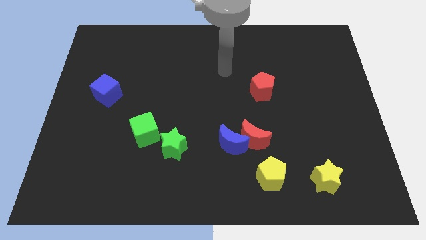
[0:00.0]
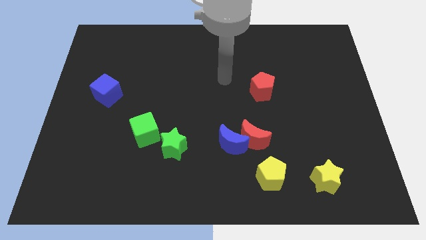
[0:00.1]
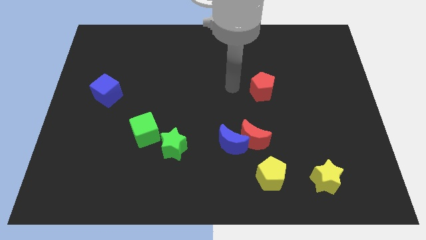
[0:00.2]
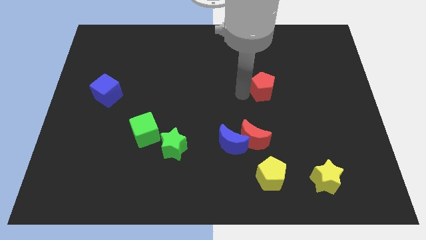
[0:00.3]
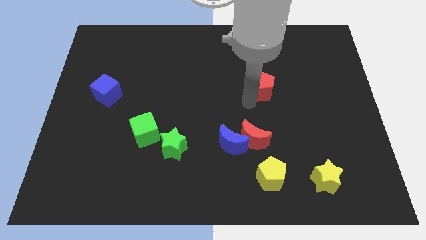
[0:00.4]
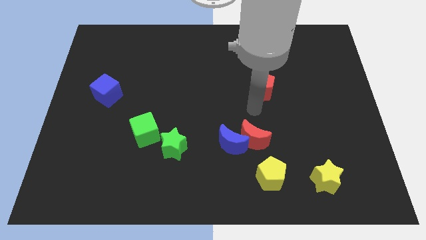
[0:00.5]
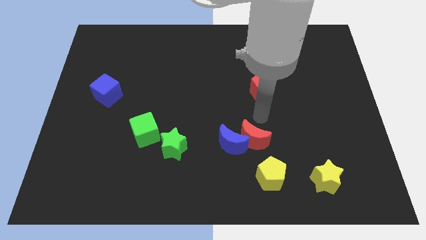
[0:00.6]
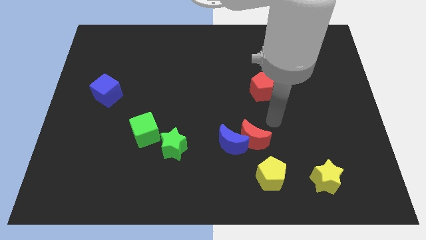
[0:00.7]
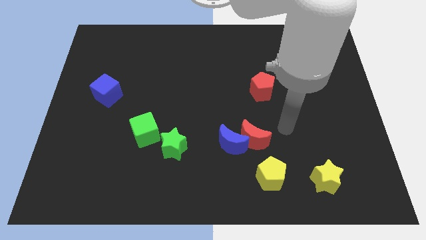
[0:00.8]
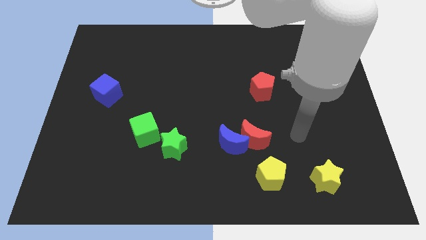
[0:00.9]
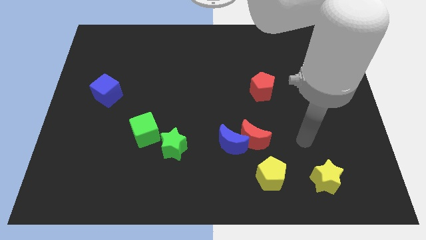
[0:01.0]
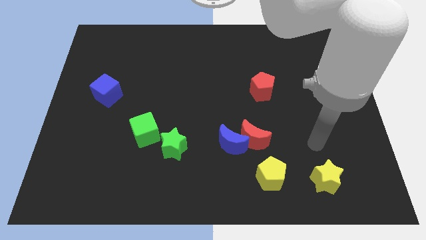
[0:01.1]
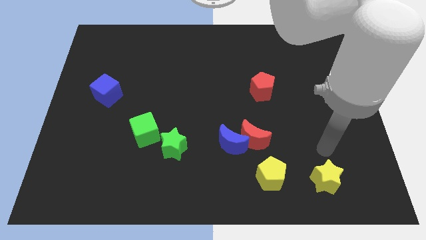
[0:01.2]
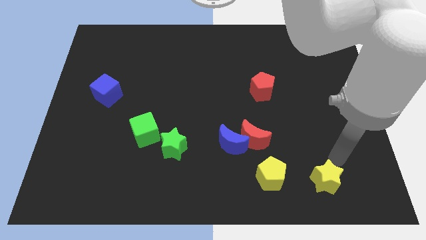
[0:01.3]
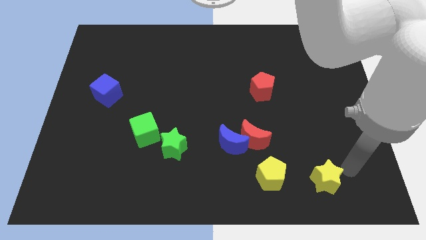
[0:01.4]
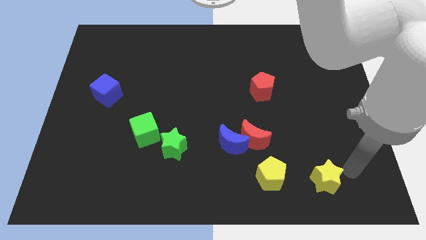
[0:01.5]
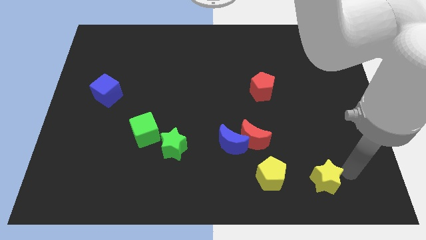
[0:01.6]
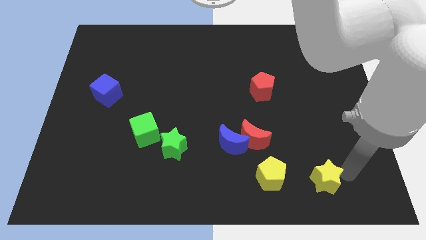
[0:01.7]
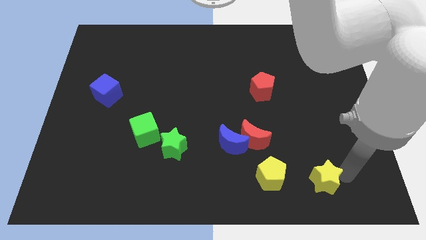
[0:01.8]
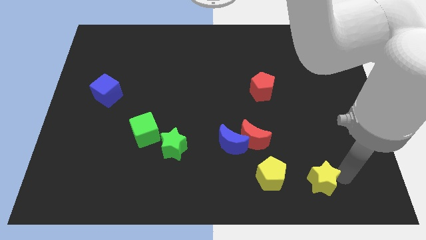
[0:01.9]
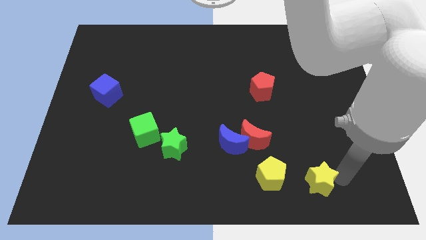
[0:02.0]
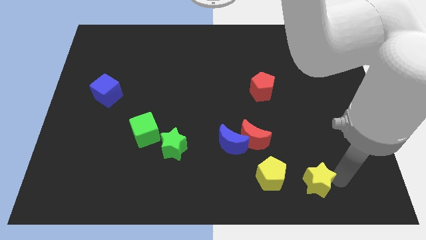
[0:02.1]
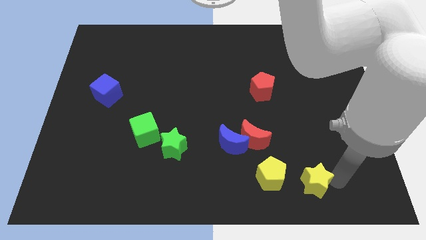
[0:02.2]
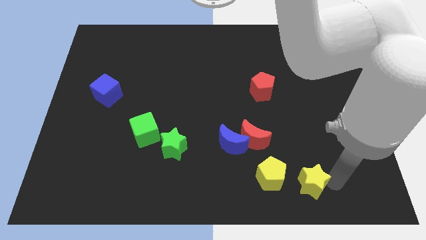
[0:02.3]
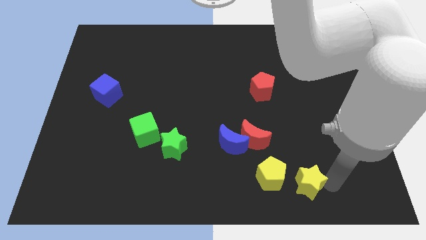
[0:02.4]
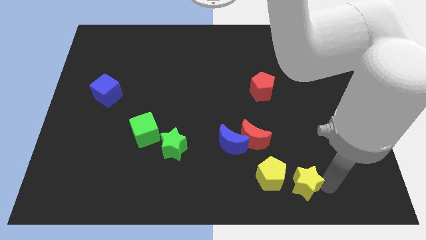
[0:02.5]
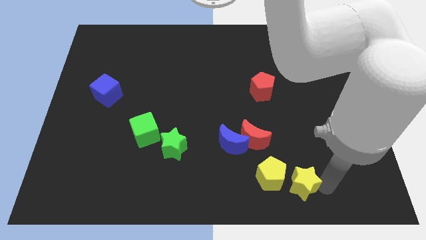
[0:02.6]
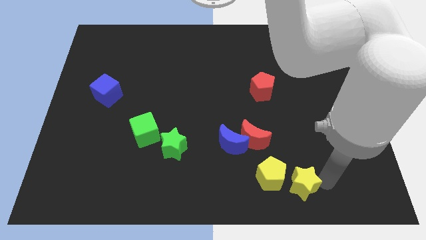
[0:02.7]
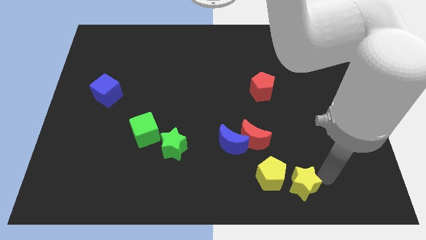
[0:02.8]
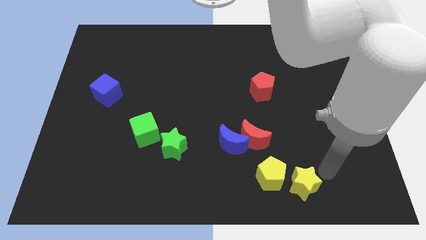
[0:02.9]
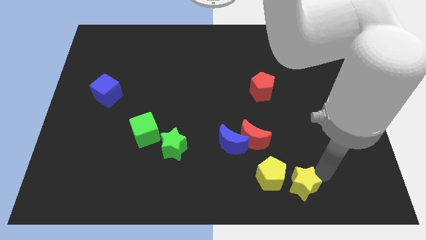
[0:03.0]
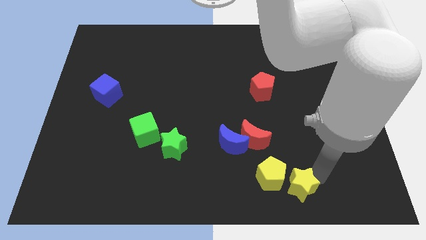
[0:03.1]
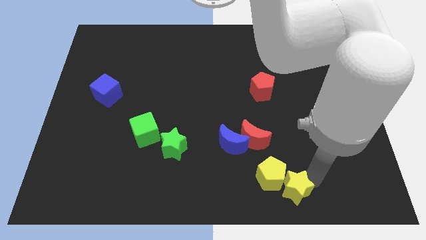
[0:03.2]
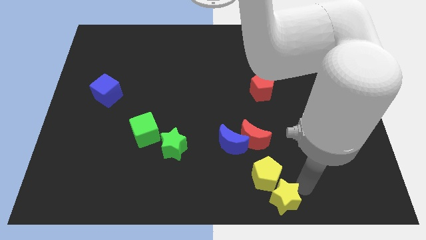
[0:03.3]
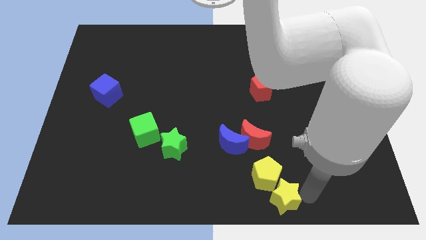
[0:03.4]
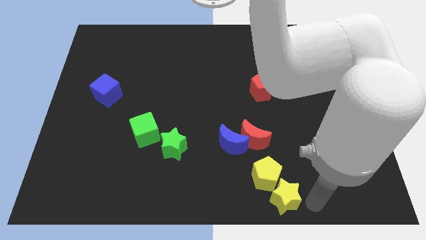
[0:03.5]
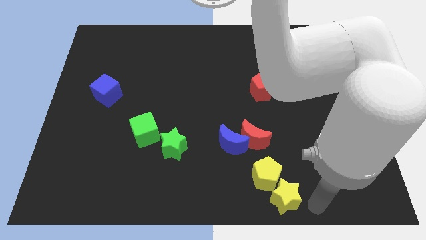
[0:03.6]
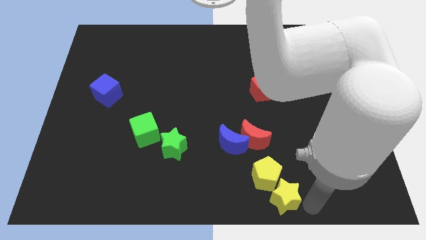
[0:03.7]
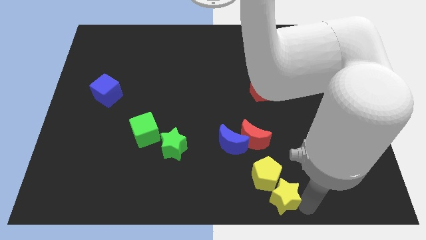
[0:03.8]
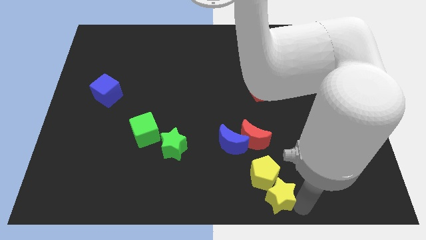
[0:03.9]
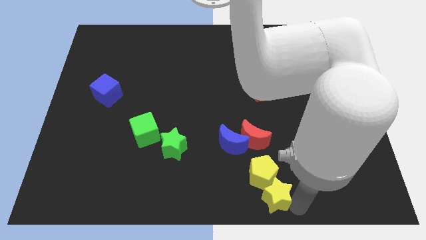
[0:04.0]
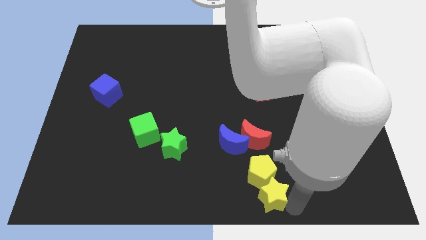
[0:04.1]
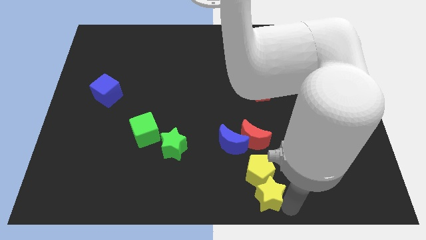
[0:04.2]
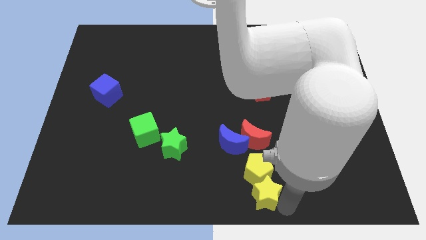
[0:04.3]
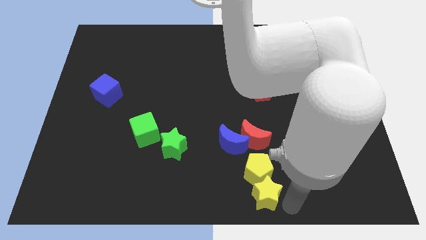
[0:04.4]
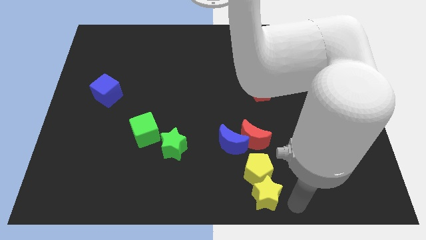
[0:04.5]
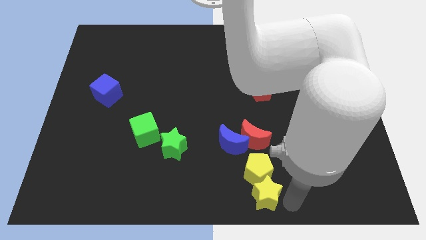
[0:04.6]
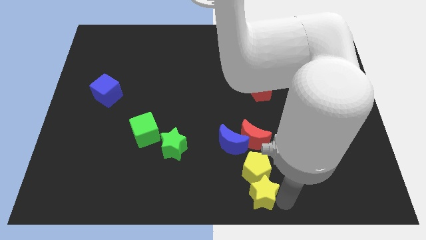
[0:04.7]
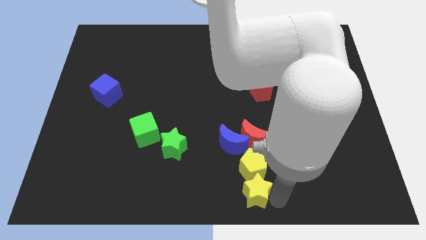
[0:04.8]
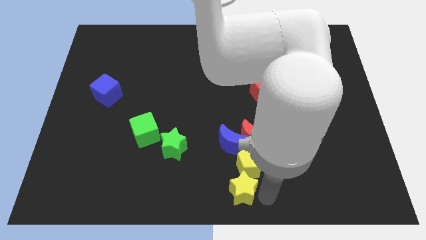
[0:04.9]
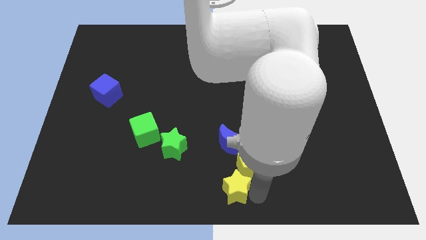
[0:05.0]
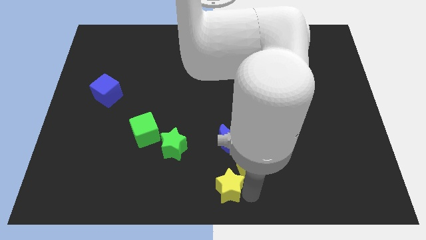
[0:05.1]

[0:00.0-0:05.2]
slide the yellow star to the left

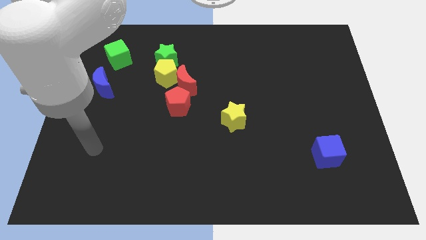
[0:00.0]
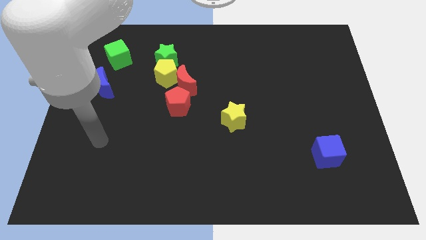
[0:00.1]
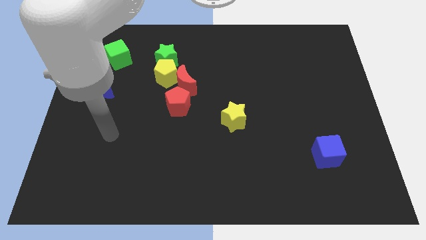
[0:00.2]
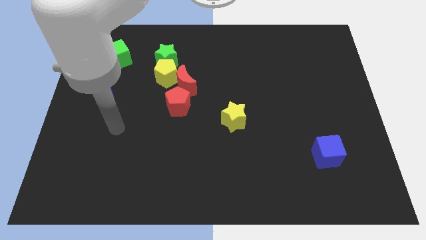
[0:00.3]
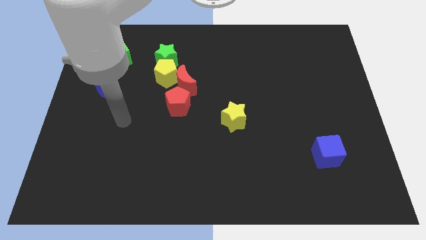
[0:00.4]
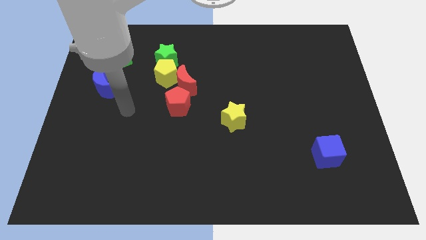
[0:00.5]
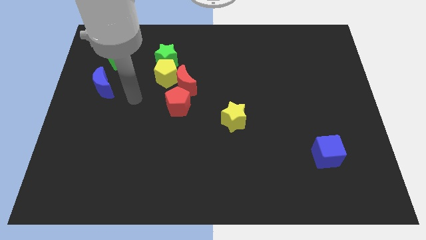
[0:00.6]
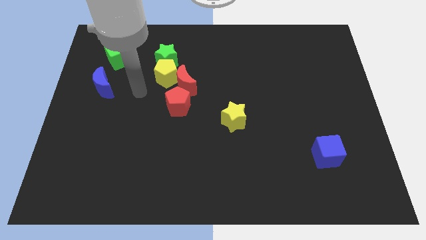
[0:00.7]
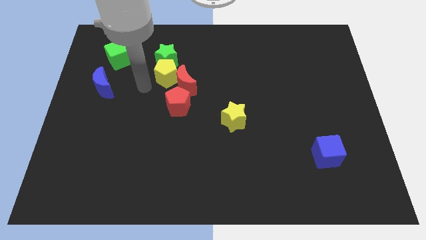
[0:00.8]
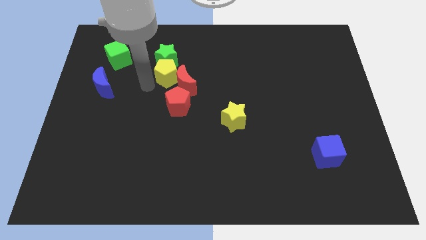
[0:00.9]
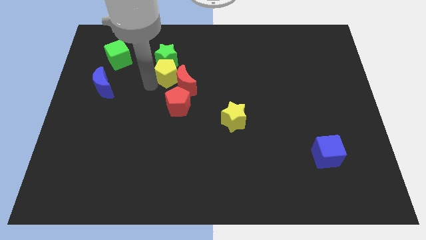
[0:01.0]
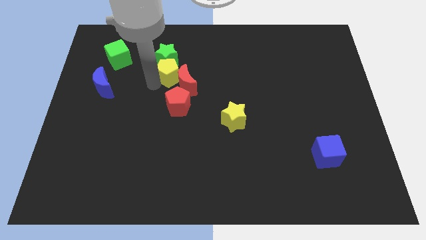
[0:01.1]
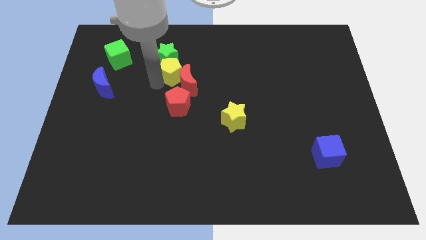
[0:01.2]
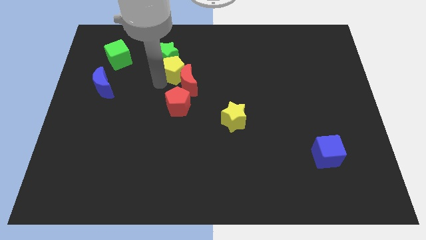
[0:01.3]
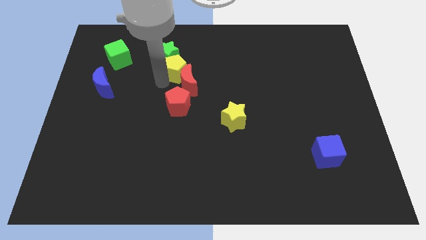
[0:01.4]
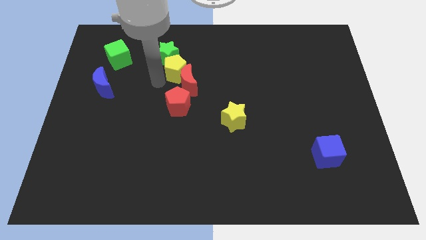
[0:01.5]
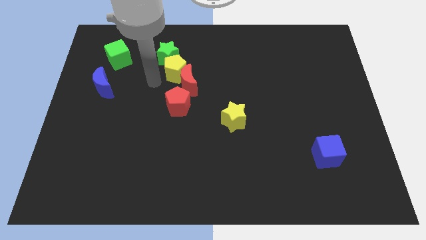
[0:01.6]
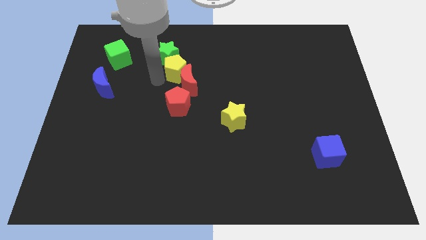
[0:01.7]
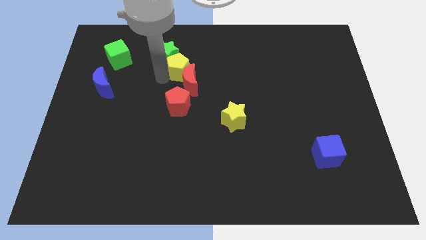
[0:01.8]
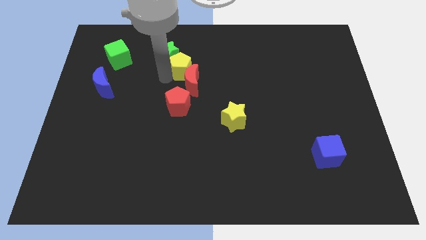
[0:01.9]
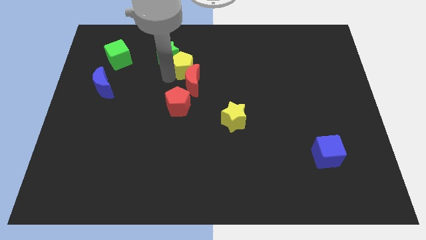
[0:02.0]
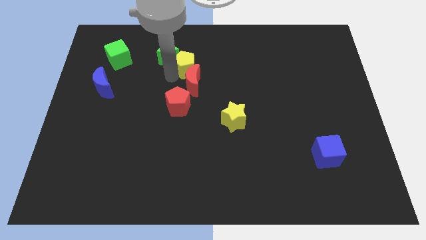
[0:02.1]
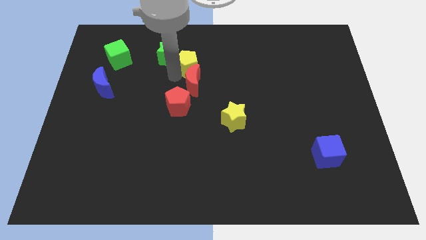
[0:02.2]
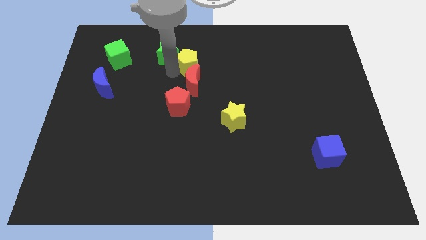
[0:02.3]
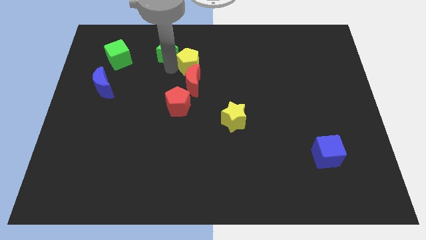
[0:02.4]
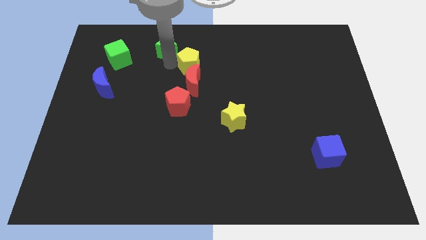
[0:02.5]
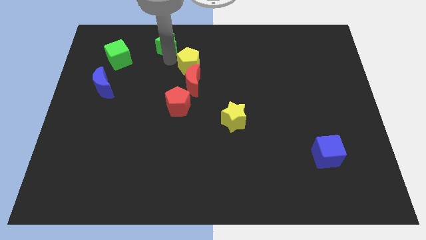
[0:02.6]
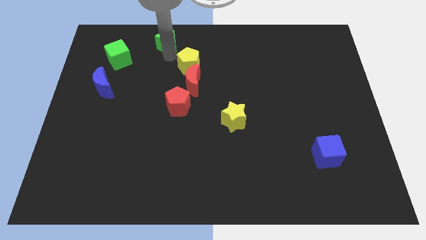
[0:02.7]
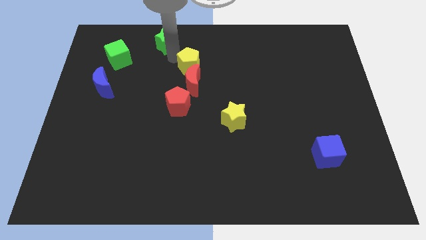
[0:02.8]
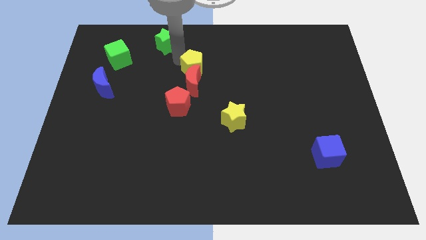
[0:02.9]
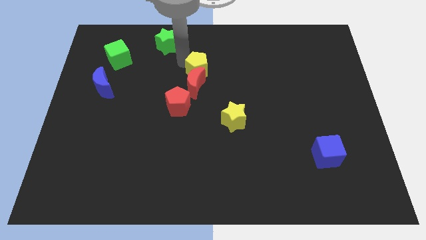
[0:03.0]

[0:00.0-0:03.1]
push the yellow pentagon right a little bit
